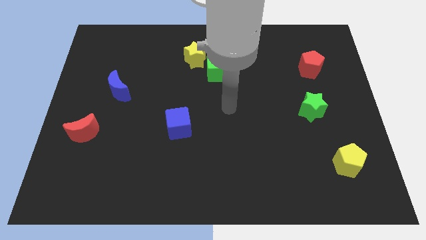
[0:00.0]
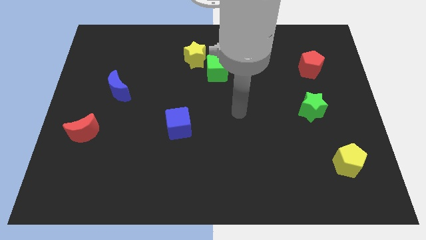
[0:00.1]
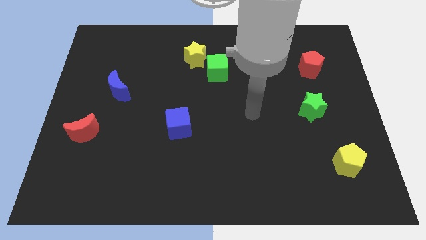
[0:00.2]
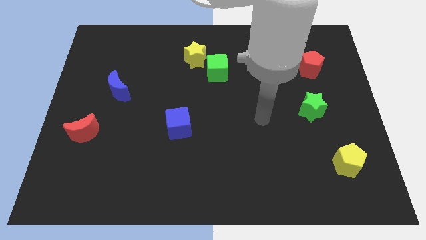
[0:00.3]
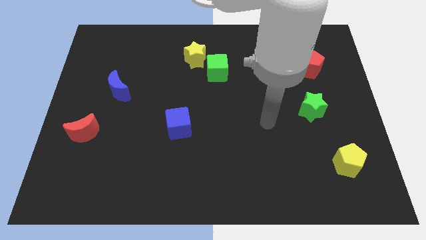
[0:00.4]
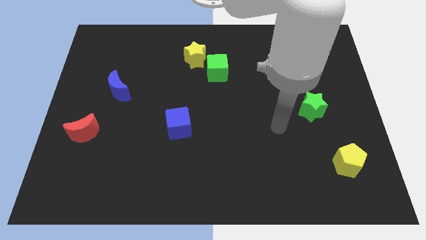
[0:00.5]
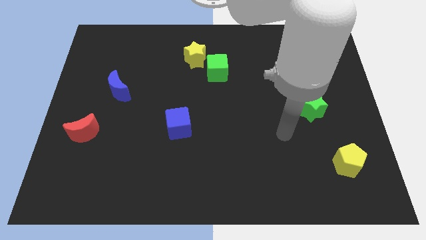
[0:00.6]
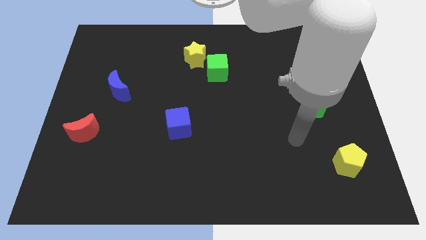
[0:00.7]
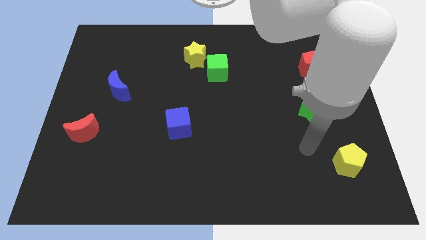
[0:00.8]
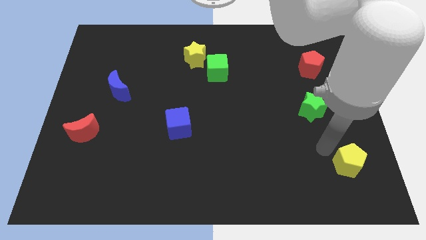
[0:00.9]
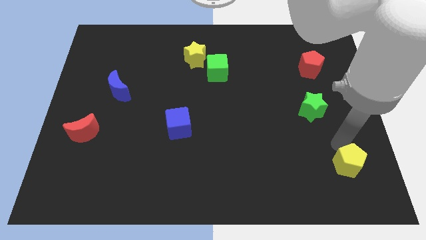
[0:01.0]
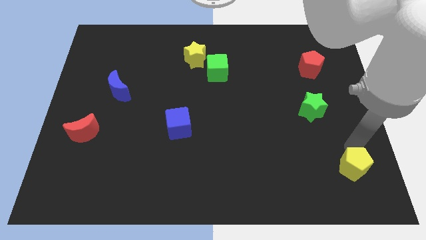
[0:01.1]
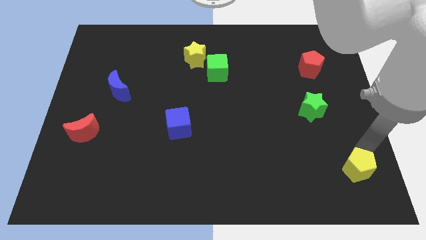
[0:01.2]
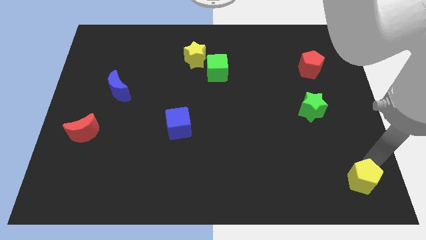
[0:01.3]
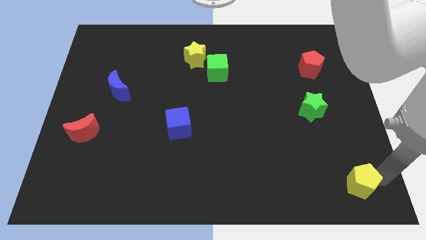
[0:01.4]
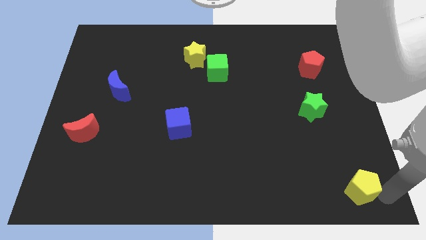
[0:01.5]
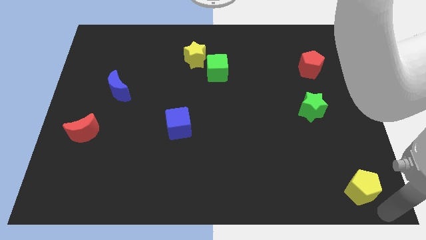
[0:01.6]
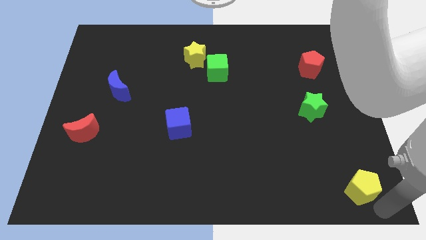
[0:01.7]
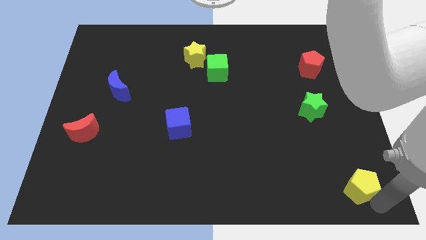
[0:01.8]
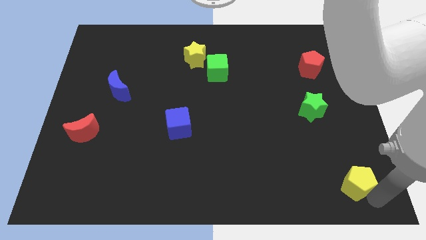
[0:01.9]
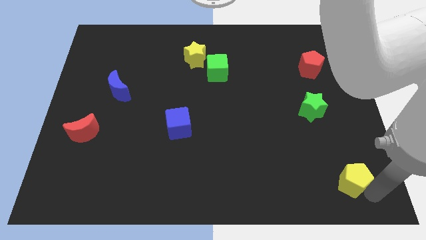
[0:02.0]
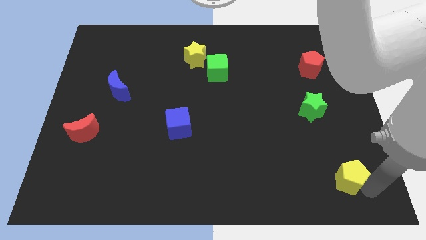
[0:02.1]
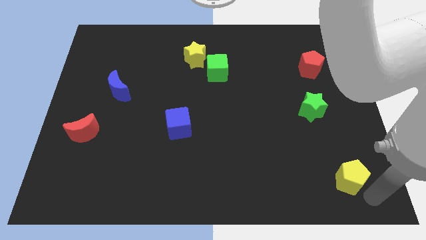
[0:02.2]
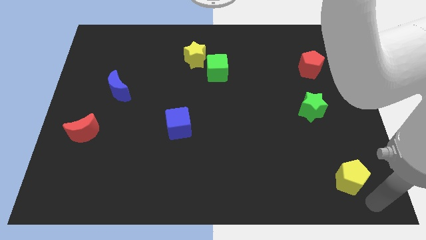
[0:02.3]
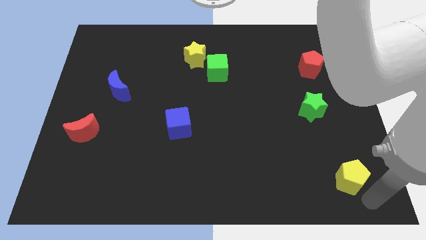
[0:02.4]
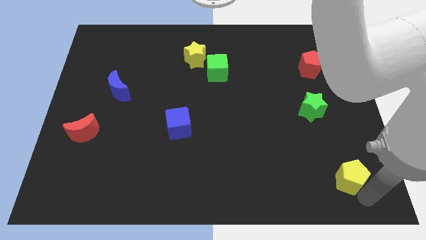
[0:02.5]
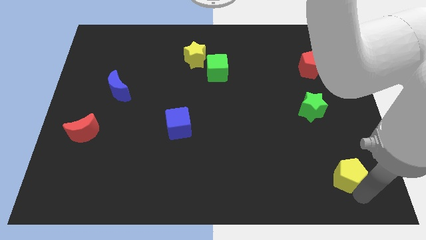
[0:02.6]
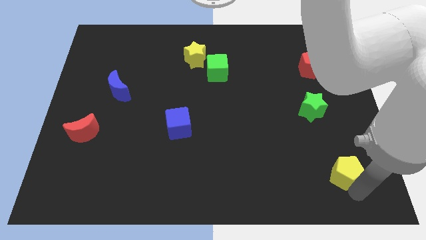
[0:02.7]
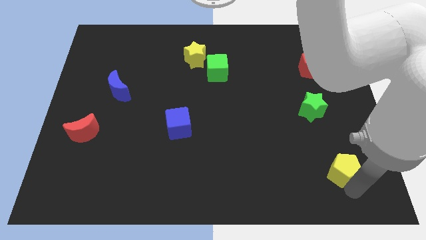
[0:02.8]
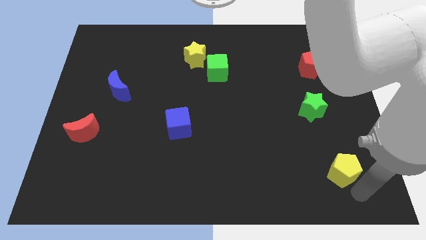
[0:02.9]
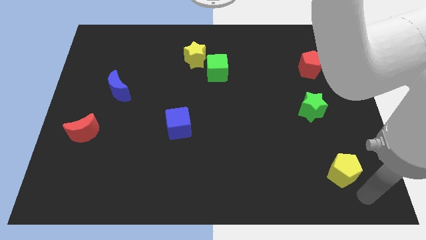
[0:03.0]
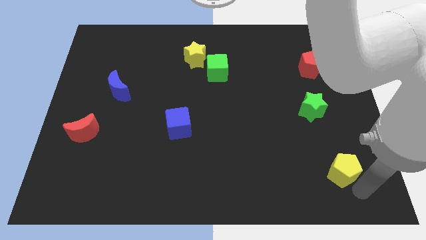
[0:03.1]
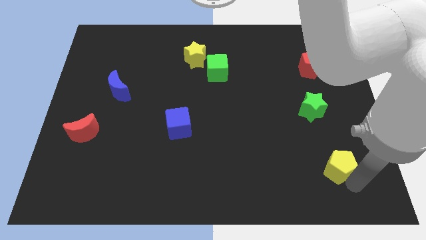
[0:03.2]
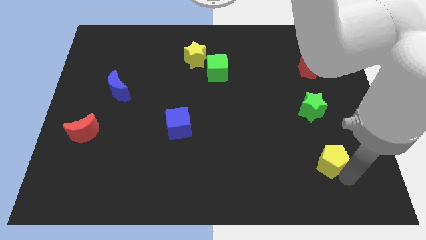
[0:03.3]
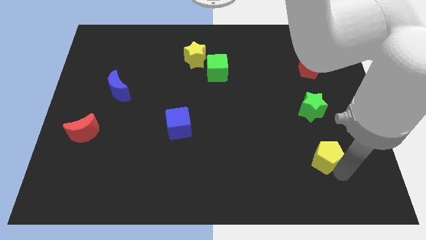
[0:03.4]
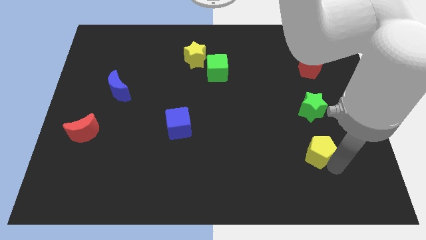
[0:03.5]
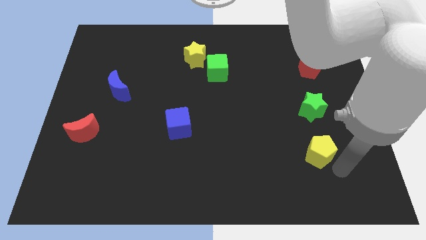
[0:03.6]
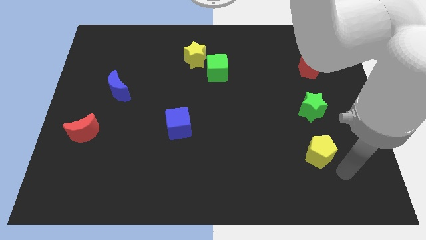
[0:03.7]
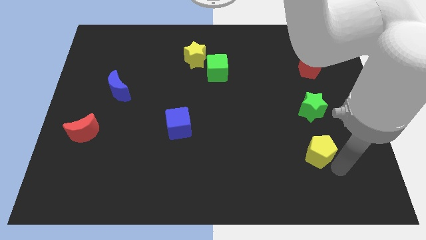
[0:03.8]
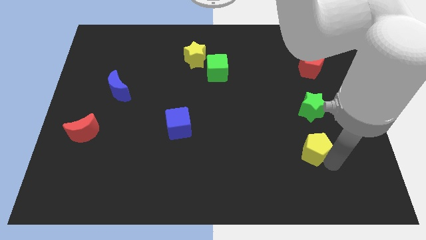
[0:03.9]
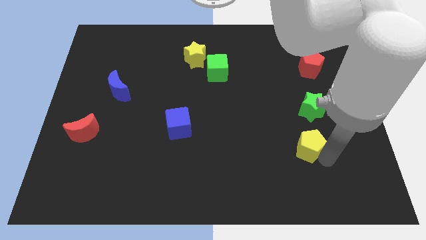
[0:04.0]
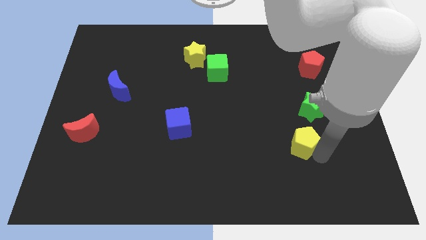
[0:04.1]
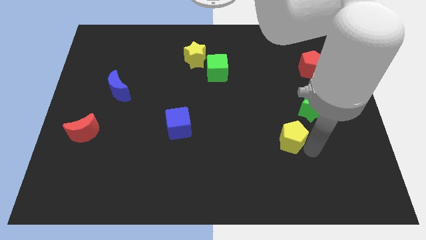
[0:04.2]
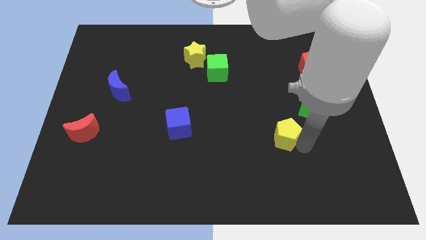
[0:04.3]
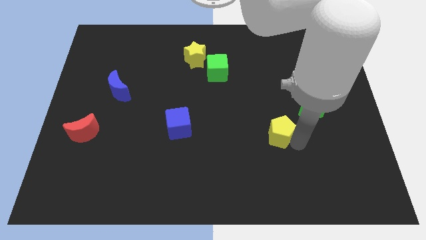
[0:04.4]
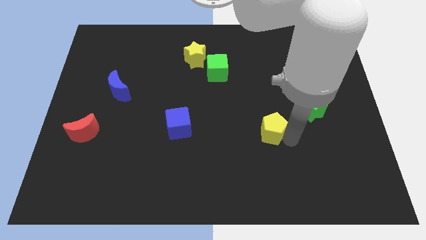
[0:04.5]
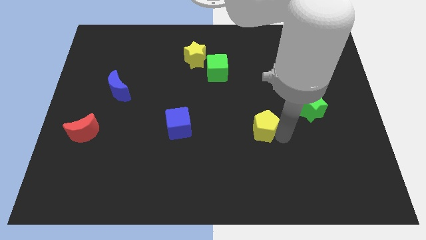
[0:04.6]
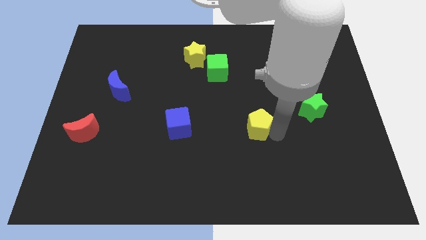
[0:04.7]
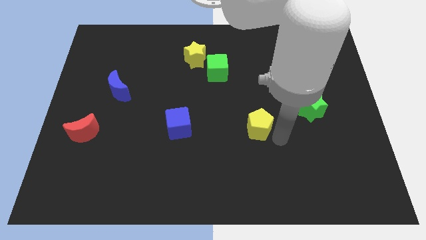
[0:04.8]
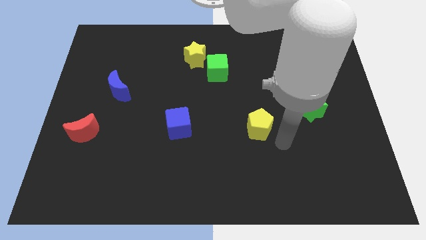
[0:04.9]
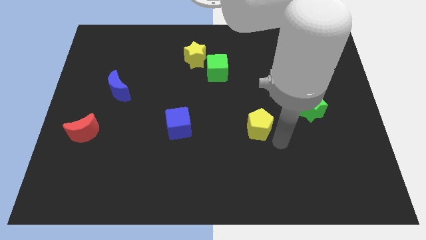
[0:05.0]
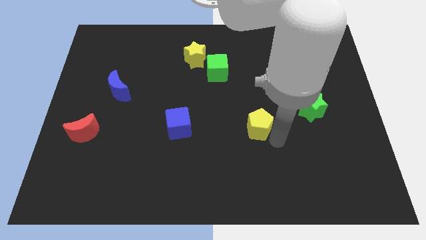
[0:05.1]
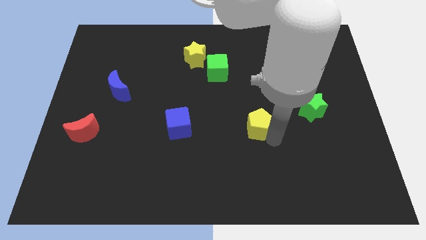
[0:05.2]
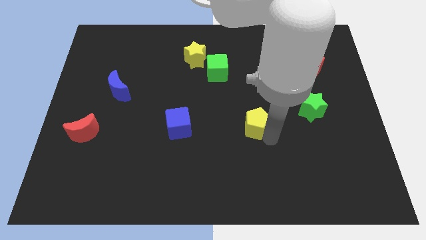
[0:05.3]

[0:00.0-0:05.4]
put the yellow pentagon to the center

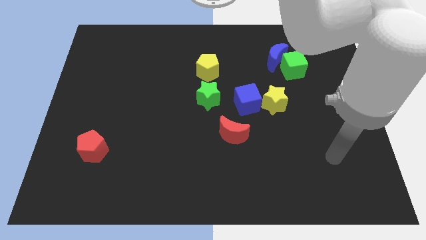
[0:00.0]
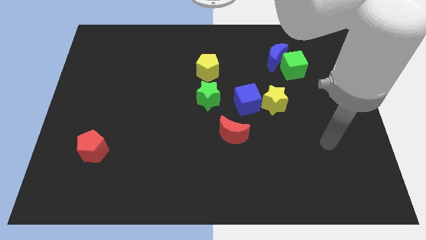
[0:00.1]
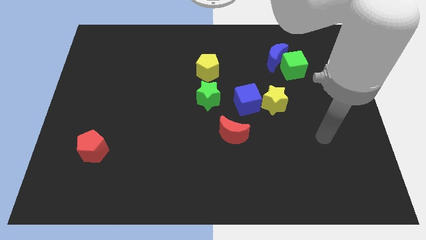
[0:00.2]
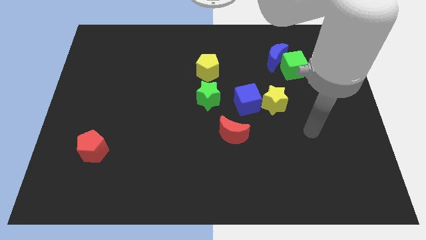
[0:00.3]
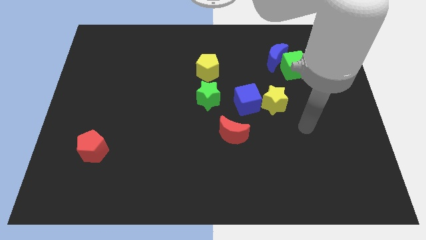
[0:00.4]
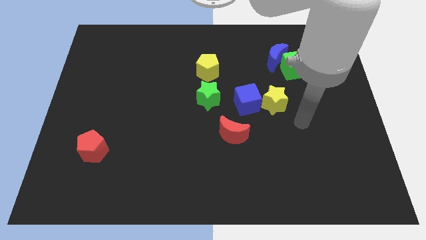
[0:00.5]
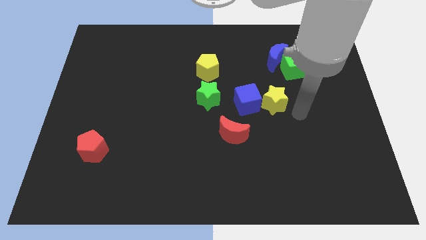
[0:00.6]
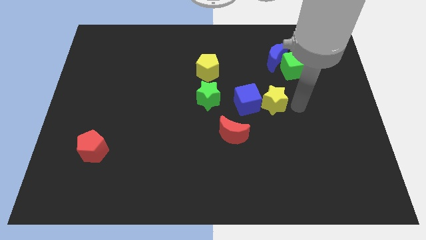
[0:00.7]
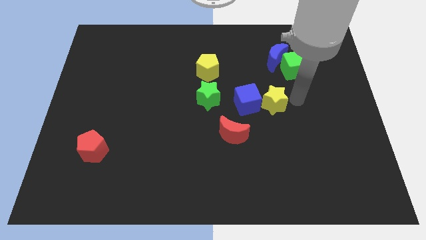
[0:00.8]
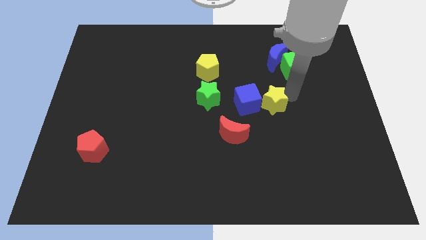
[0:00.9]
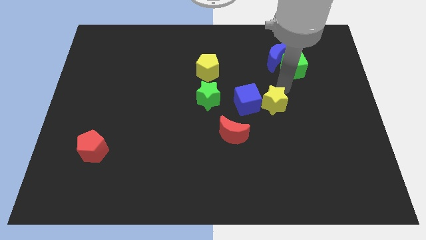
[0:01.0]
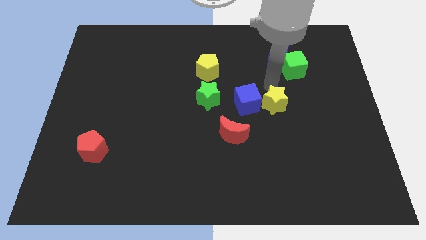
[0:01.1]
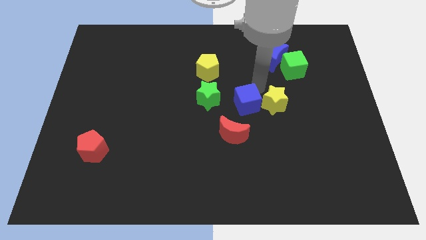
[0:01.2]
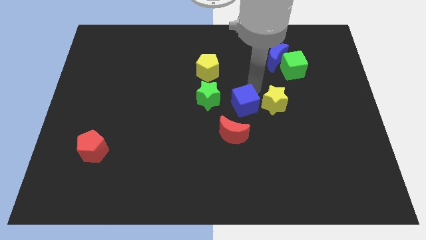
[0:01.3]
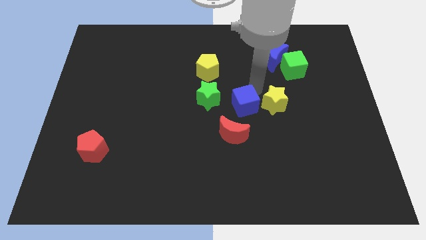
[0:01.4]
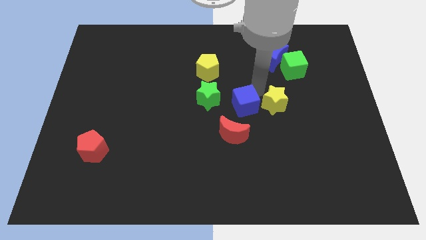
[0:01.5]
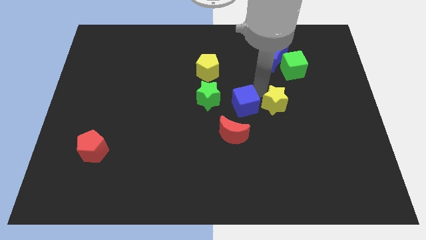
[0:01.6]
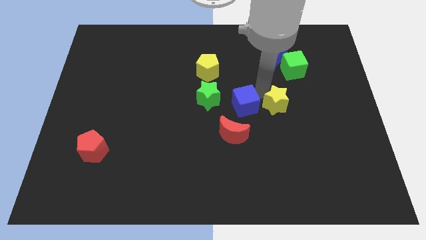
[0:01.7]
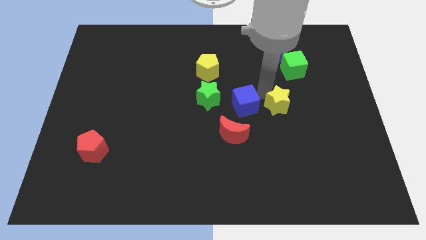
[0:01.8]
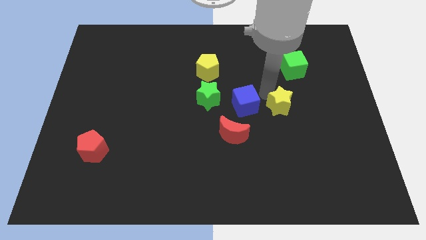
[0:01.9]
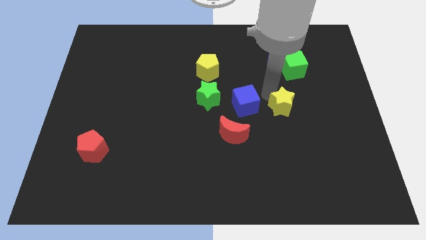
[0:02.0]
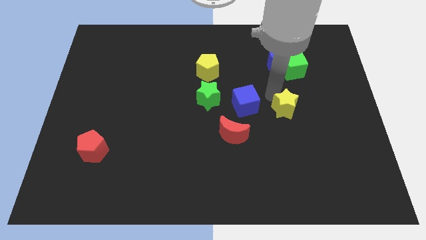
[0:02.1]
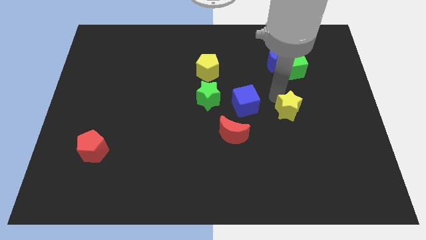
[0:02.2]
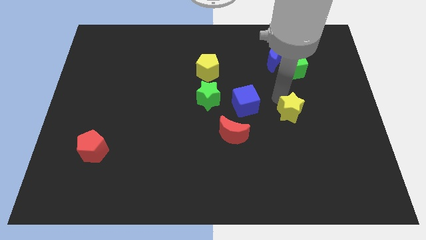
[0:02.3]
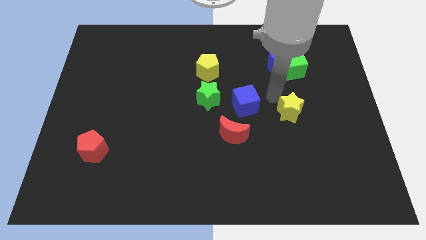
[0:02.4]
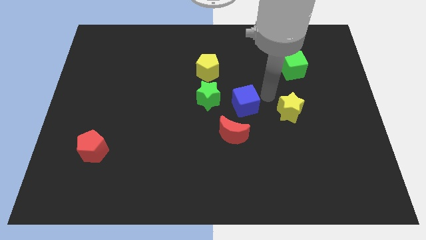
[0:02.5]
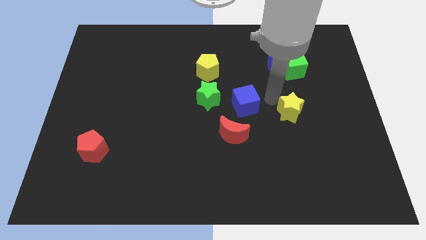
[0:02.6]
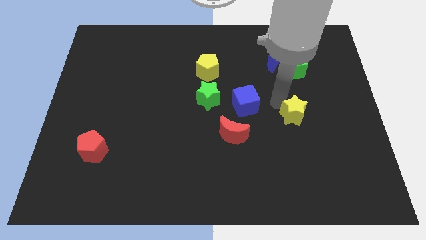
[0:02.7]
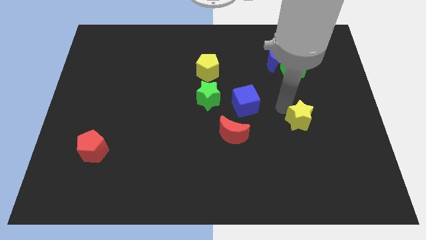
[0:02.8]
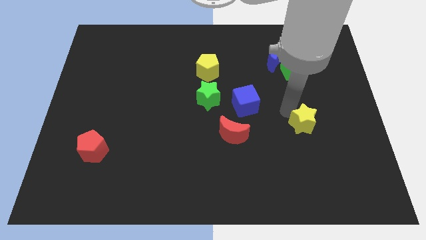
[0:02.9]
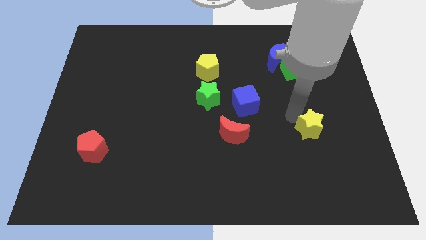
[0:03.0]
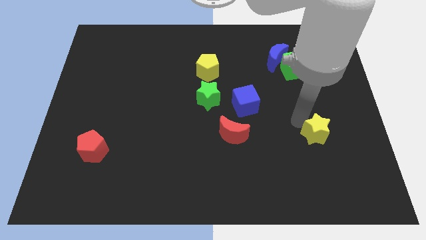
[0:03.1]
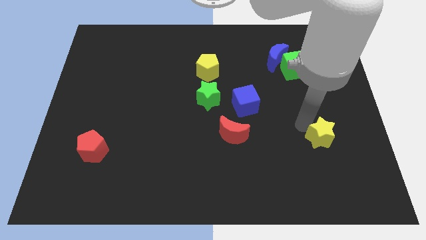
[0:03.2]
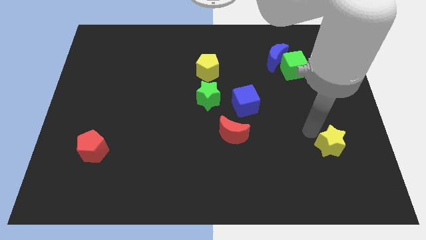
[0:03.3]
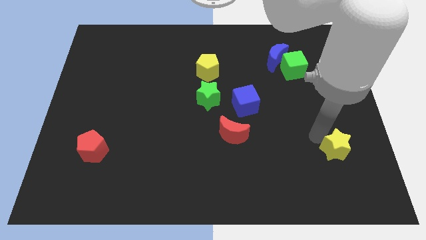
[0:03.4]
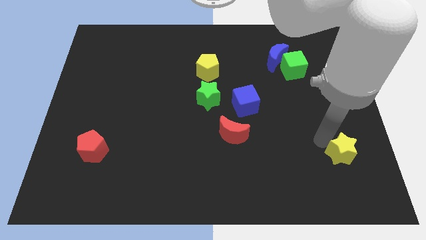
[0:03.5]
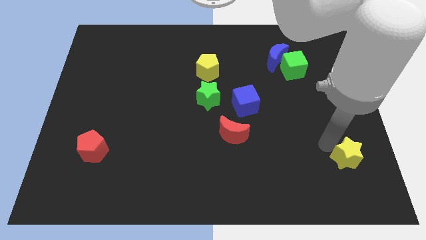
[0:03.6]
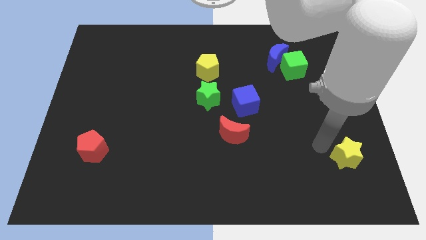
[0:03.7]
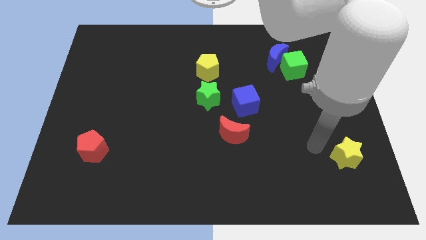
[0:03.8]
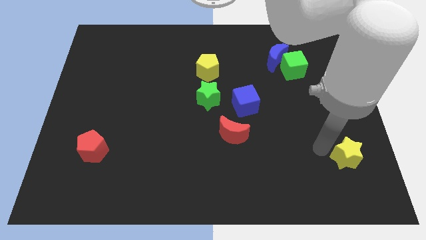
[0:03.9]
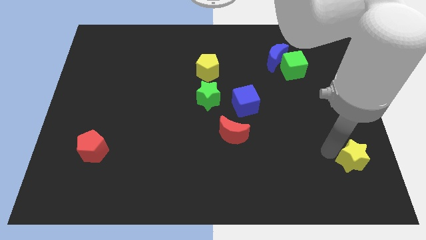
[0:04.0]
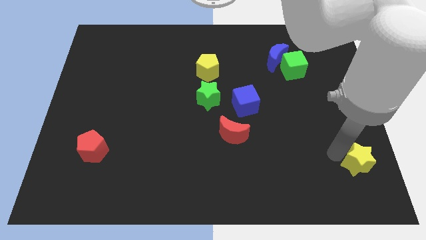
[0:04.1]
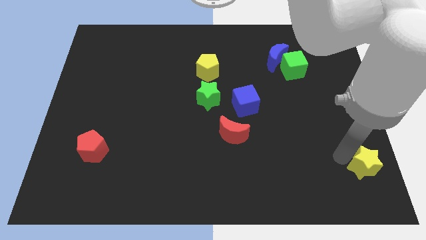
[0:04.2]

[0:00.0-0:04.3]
move the yellow star to the lower right corner
